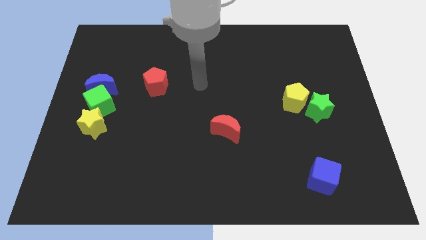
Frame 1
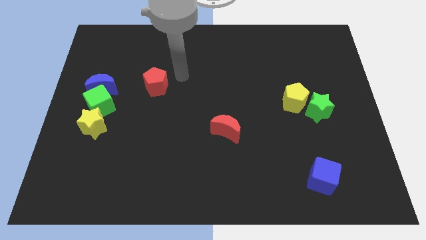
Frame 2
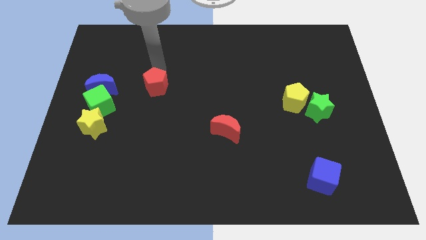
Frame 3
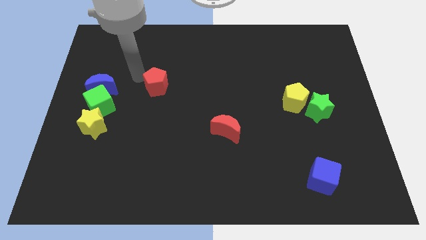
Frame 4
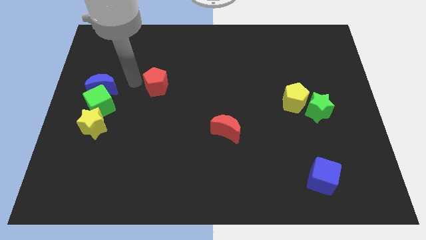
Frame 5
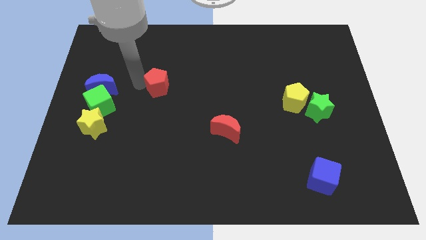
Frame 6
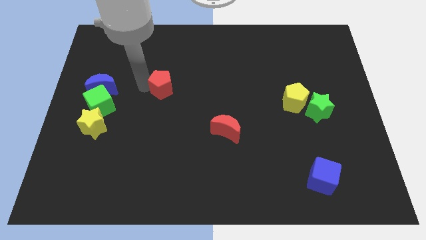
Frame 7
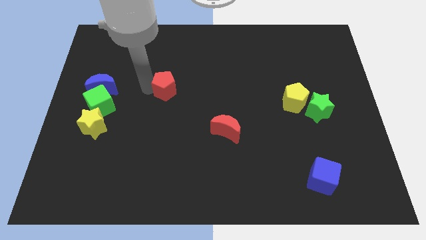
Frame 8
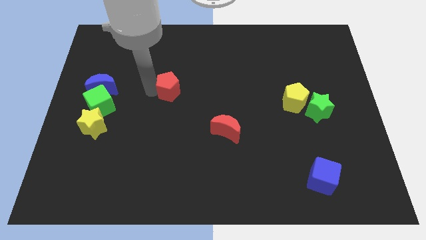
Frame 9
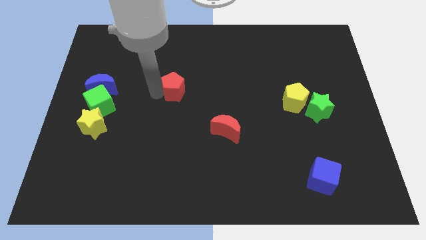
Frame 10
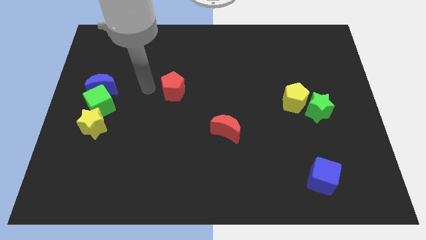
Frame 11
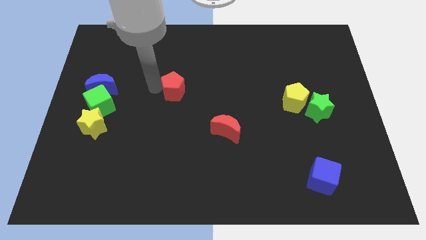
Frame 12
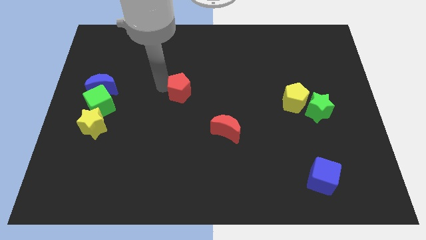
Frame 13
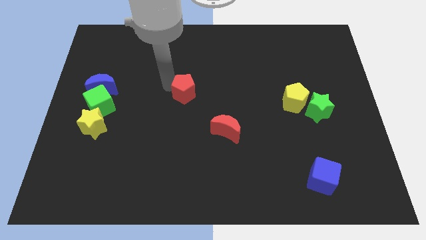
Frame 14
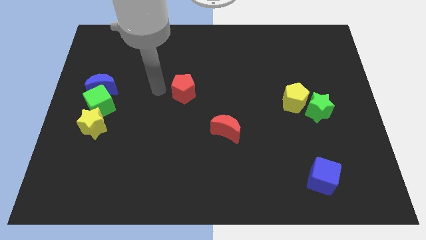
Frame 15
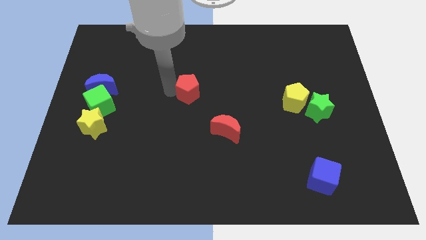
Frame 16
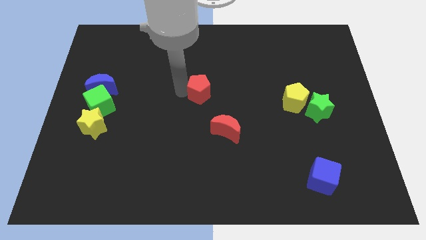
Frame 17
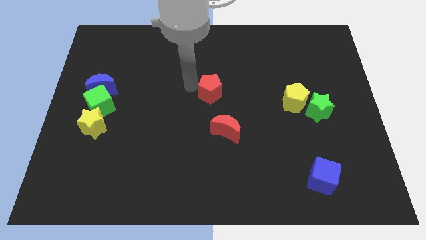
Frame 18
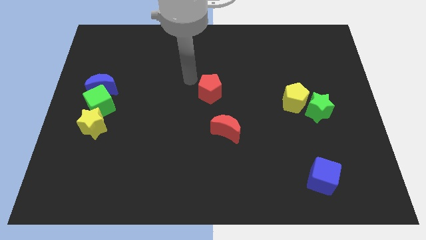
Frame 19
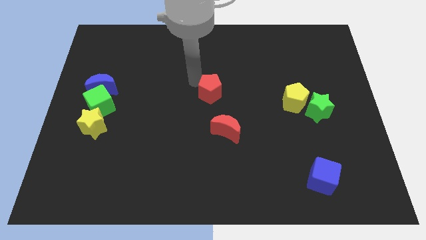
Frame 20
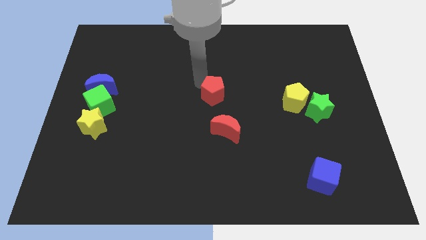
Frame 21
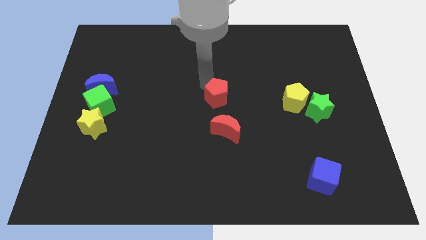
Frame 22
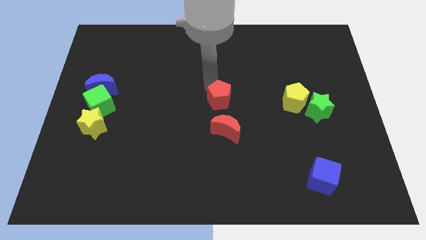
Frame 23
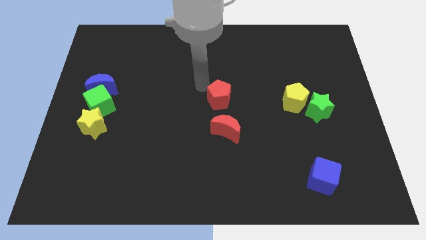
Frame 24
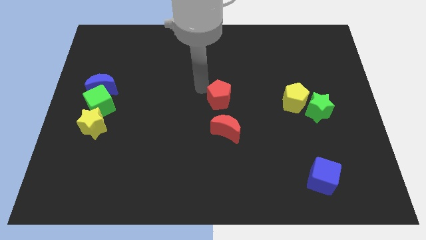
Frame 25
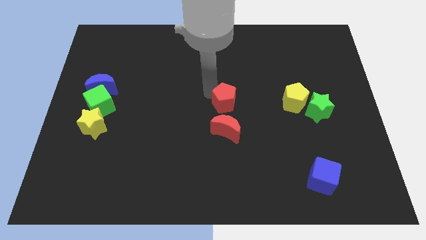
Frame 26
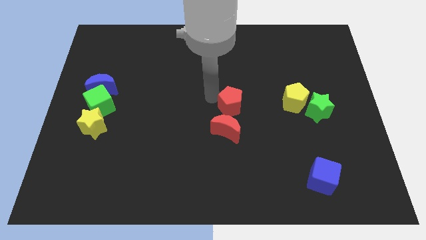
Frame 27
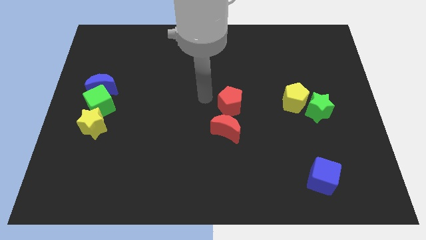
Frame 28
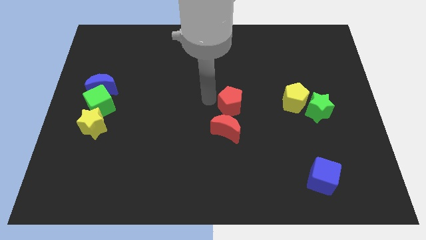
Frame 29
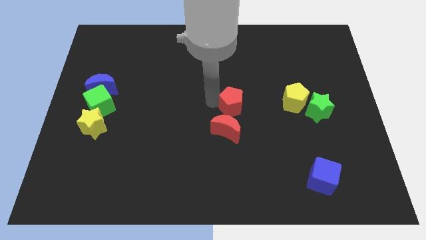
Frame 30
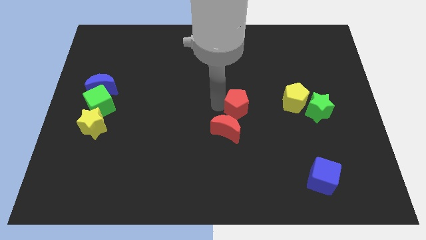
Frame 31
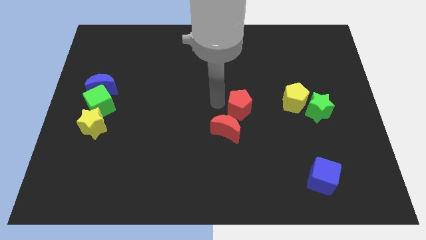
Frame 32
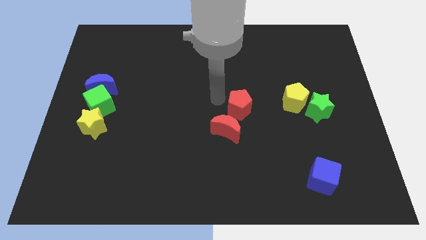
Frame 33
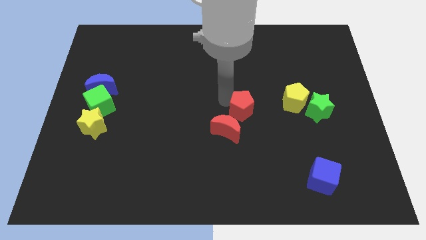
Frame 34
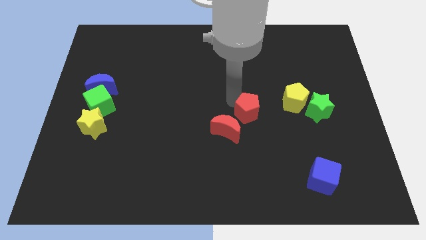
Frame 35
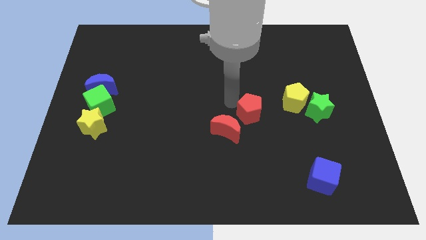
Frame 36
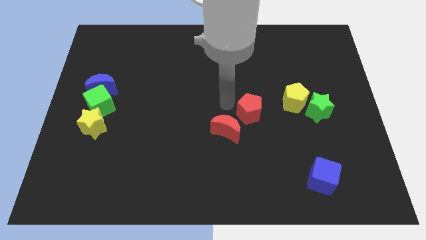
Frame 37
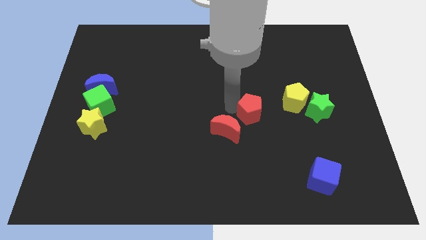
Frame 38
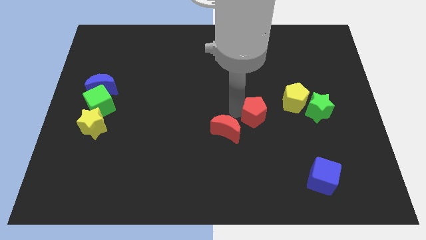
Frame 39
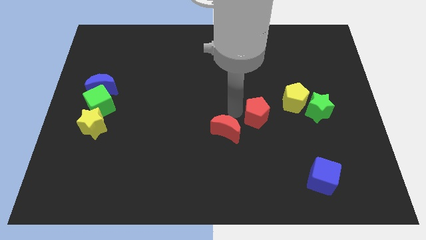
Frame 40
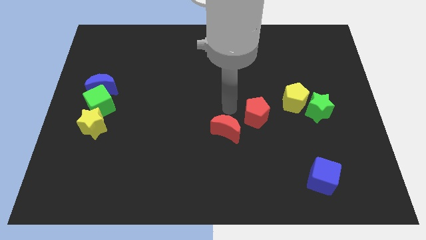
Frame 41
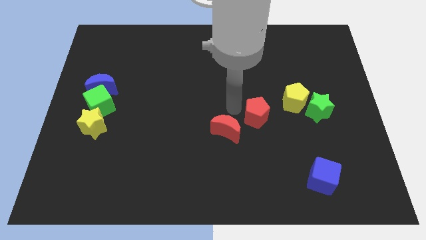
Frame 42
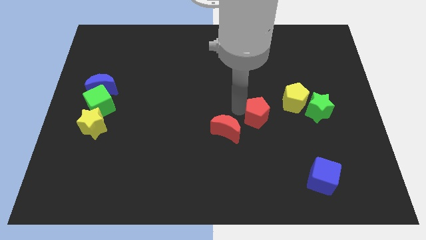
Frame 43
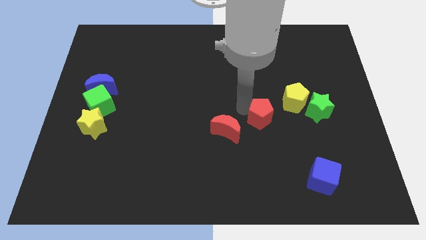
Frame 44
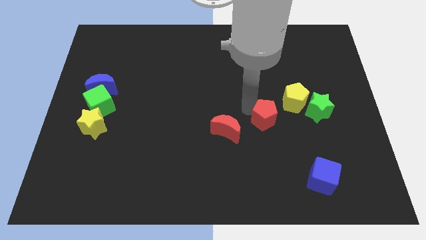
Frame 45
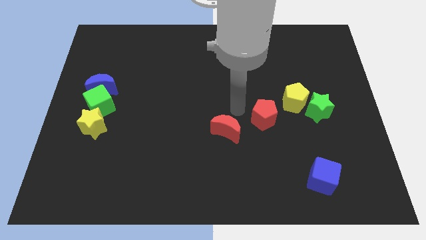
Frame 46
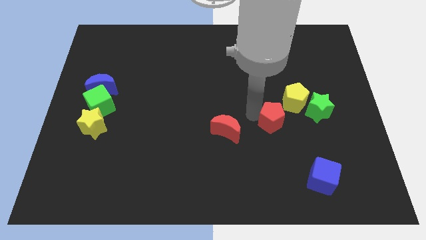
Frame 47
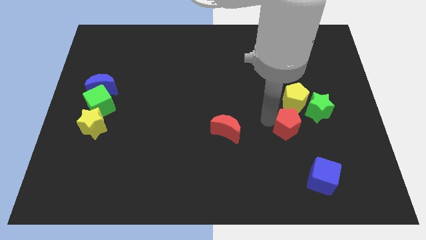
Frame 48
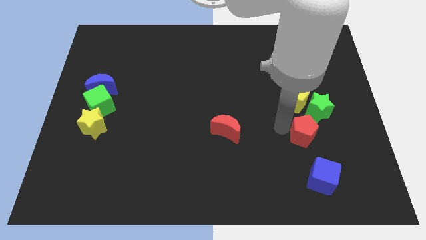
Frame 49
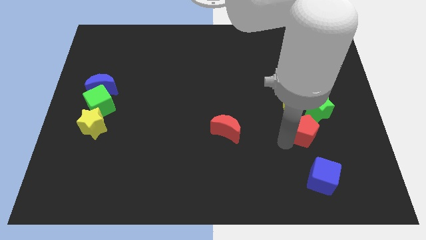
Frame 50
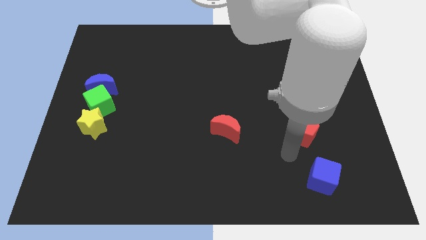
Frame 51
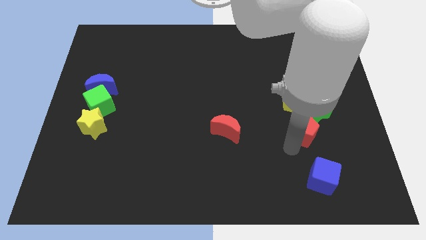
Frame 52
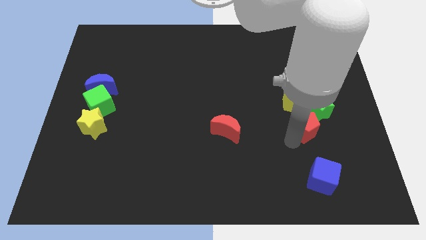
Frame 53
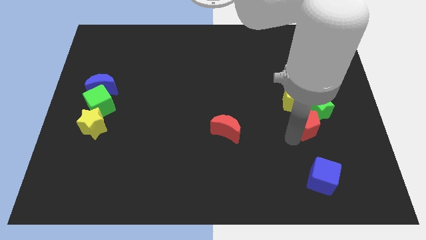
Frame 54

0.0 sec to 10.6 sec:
move the red pentagon towards the green star

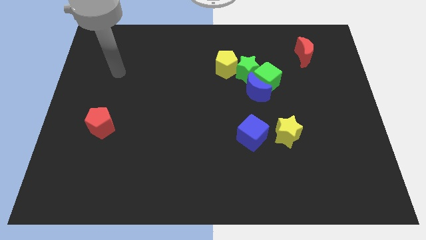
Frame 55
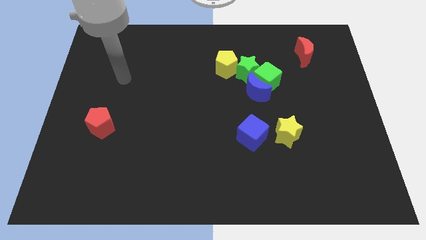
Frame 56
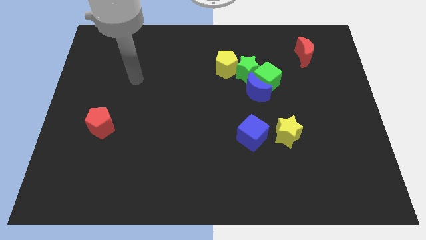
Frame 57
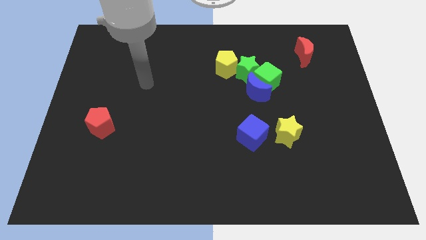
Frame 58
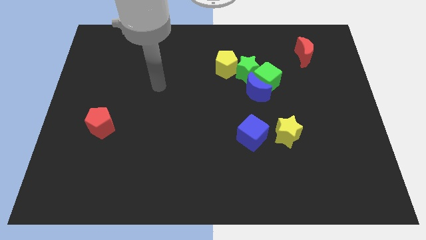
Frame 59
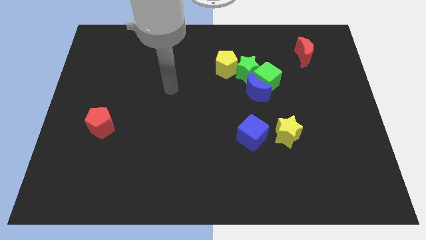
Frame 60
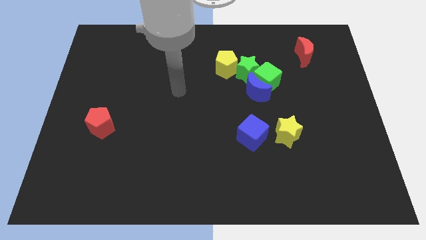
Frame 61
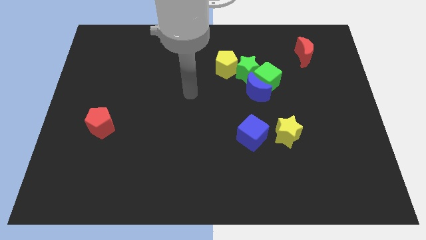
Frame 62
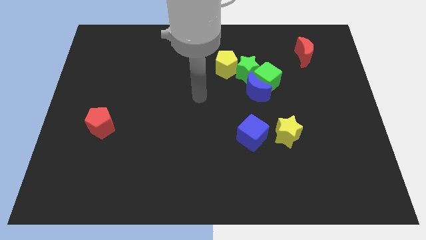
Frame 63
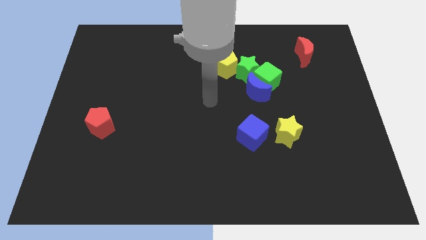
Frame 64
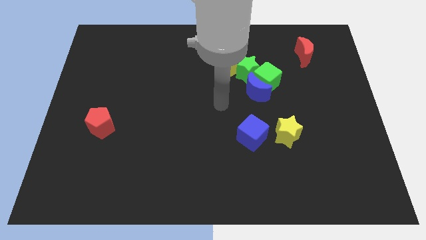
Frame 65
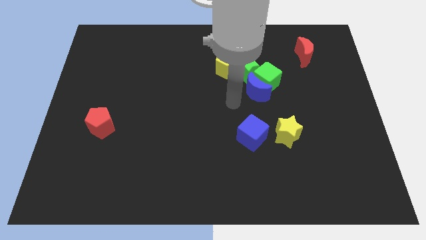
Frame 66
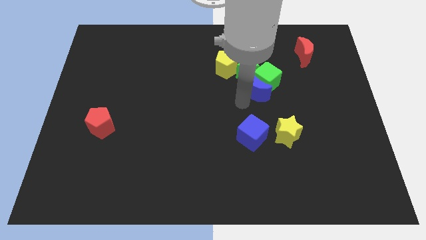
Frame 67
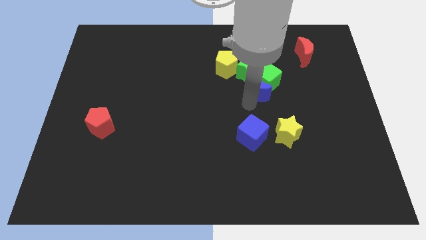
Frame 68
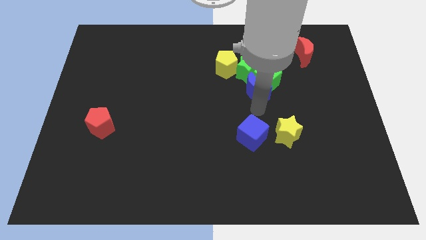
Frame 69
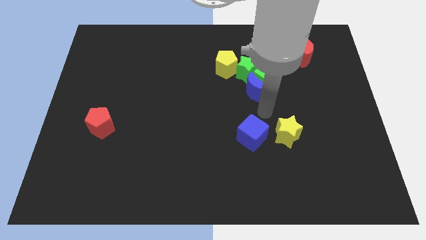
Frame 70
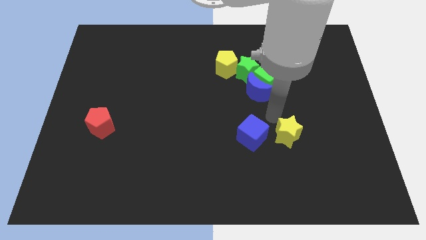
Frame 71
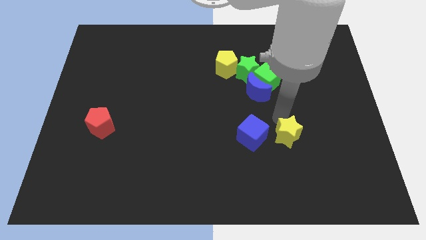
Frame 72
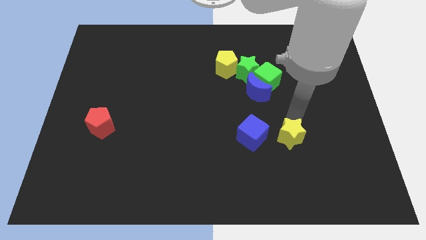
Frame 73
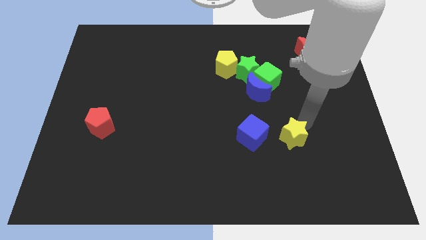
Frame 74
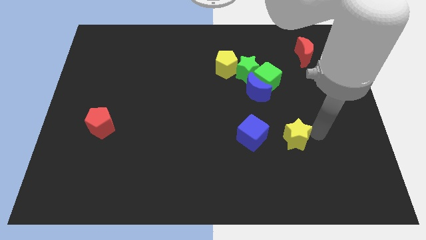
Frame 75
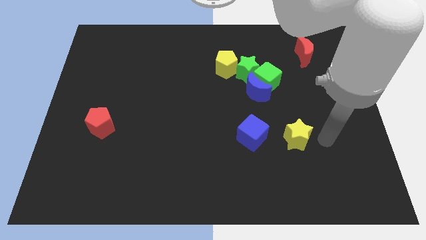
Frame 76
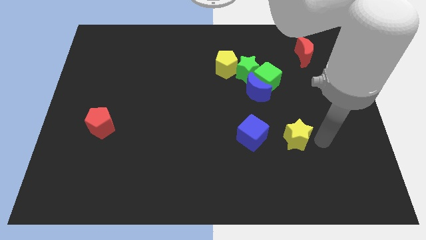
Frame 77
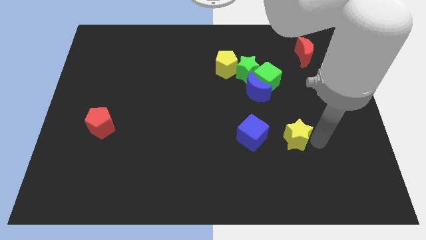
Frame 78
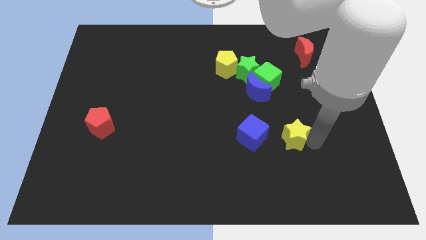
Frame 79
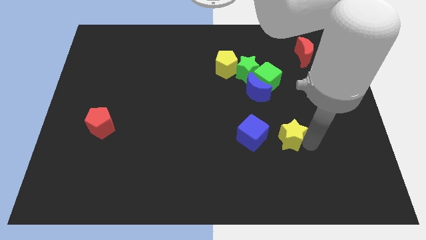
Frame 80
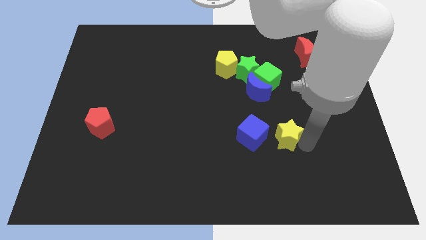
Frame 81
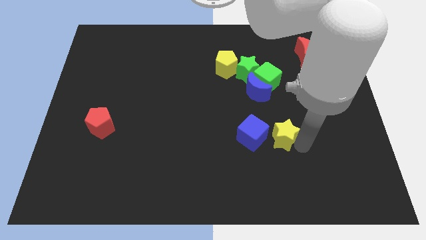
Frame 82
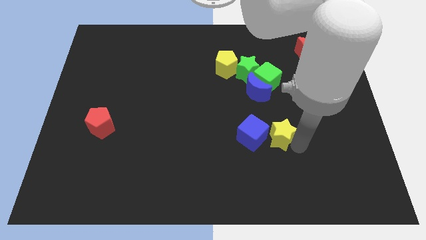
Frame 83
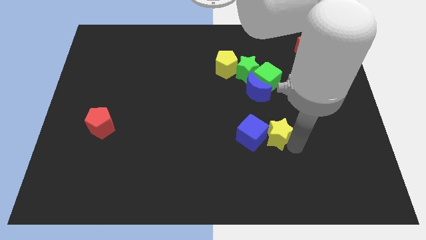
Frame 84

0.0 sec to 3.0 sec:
move the yellow star towards the blue cube
